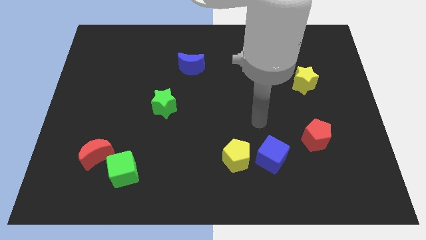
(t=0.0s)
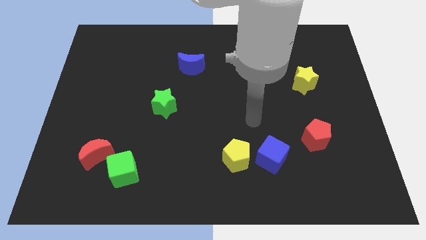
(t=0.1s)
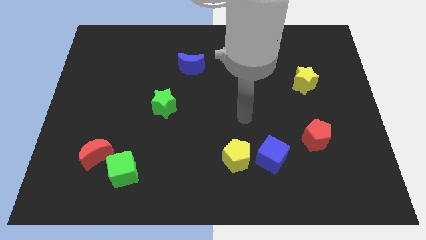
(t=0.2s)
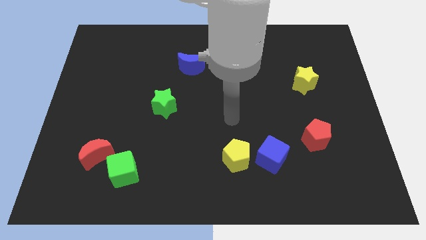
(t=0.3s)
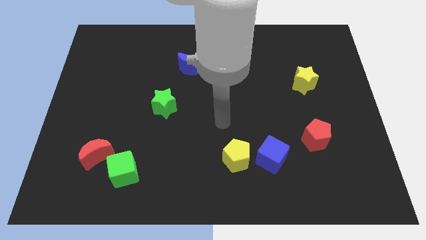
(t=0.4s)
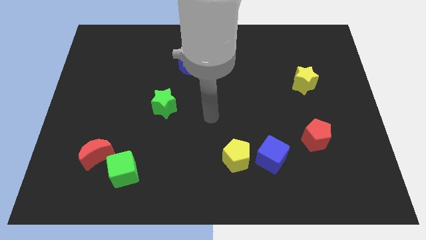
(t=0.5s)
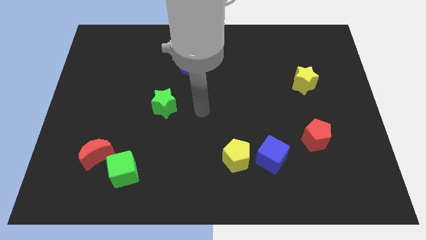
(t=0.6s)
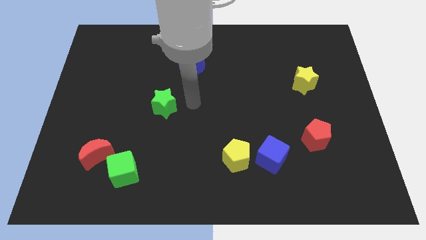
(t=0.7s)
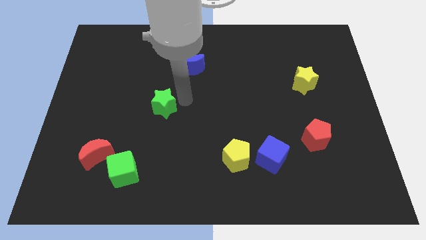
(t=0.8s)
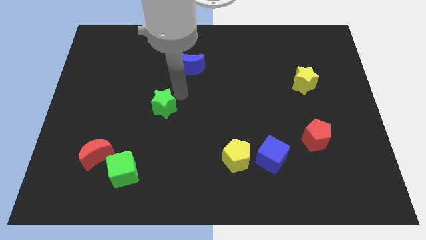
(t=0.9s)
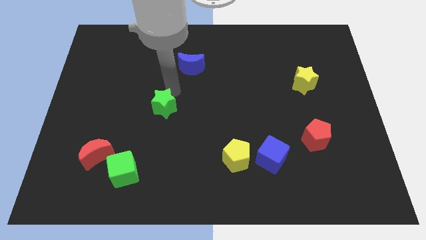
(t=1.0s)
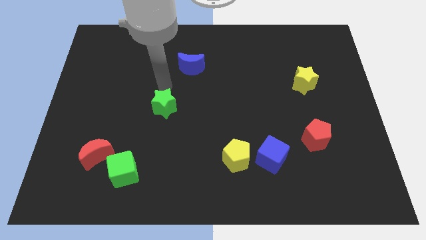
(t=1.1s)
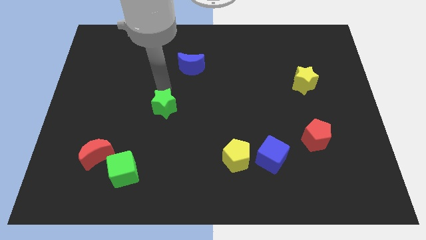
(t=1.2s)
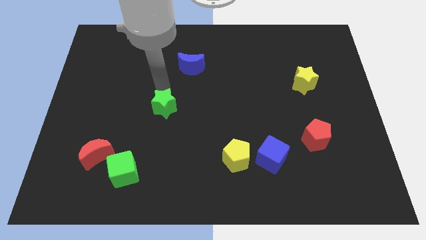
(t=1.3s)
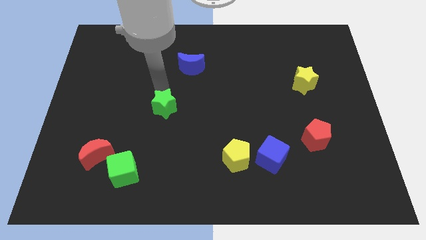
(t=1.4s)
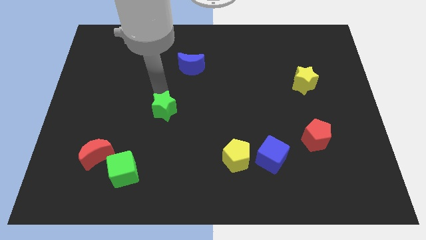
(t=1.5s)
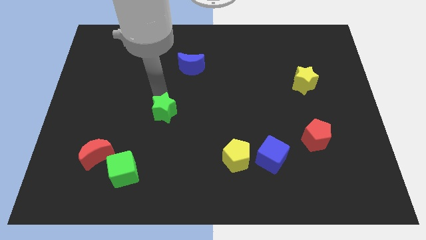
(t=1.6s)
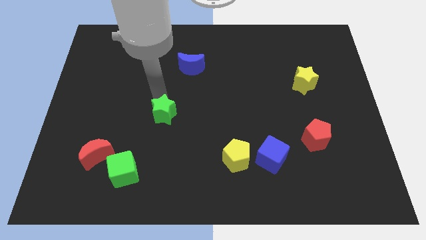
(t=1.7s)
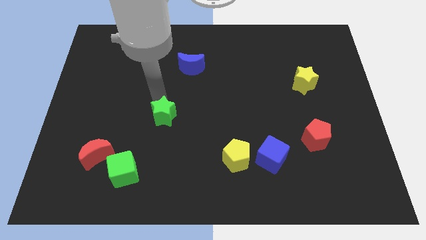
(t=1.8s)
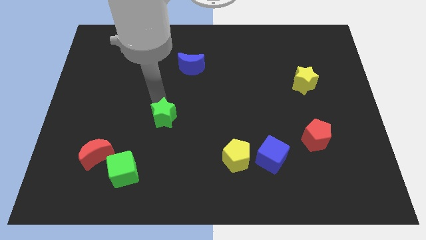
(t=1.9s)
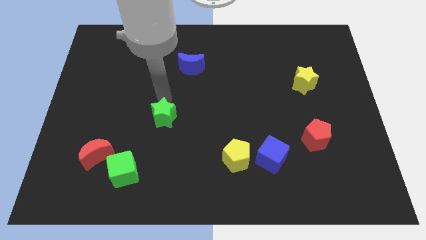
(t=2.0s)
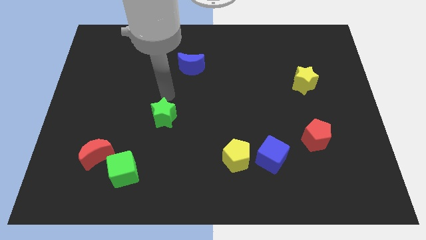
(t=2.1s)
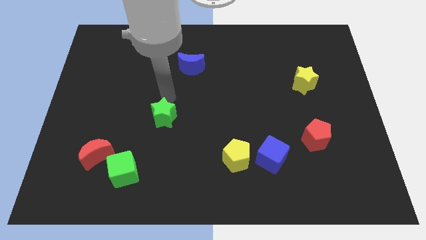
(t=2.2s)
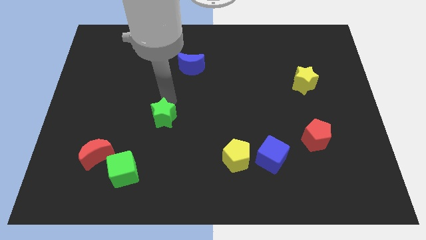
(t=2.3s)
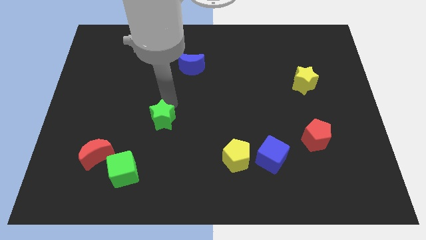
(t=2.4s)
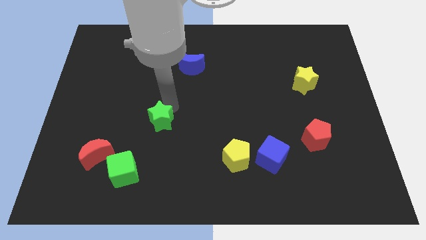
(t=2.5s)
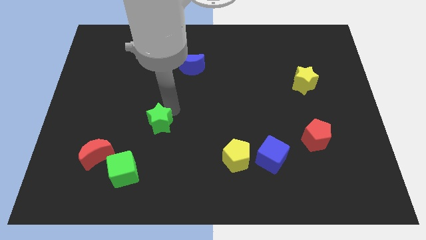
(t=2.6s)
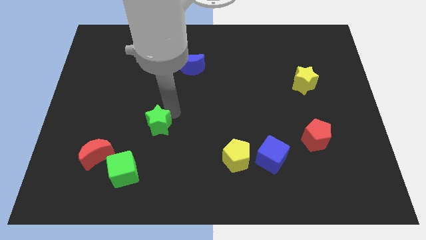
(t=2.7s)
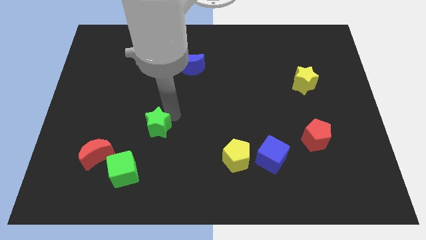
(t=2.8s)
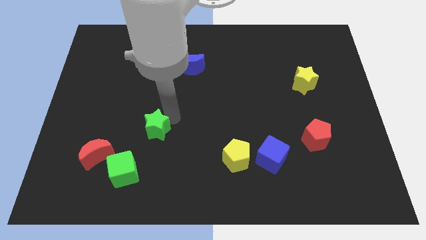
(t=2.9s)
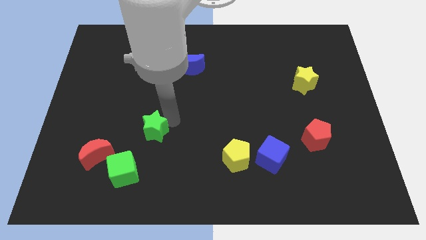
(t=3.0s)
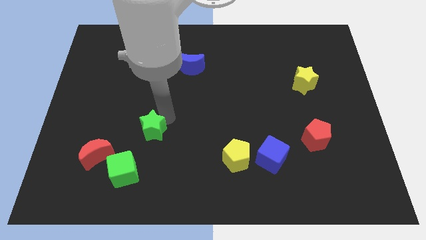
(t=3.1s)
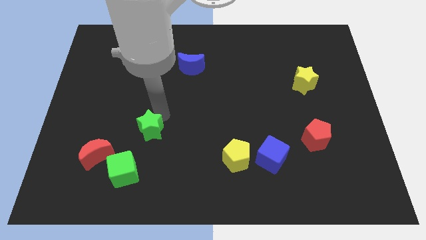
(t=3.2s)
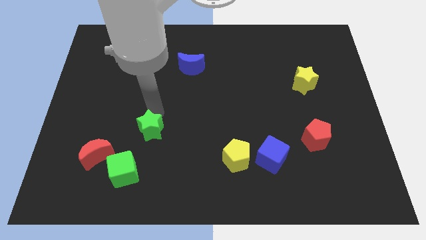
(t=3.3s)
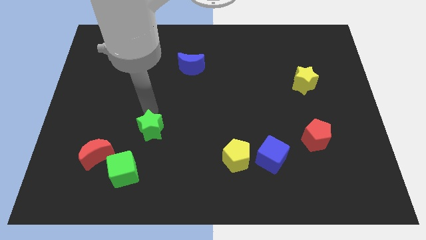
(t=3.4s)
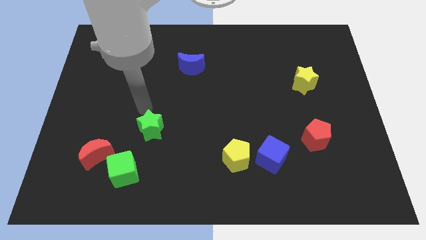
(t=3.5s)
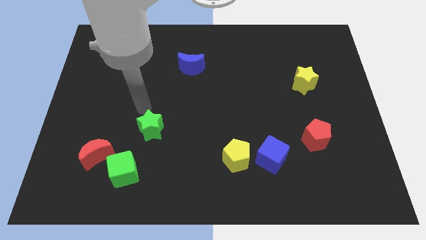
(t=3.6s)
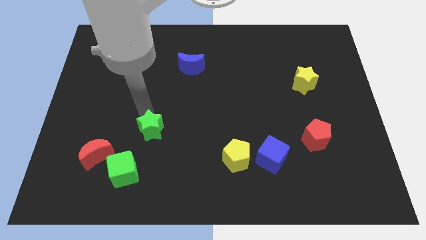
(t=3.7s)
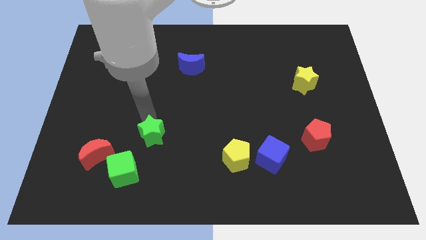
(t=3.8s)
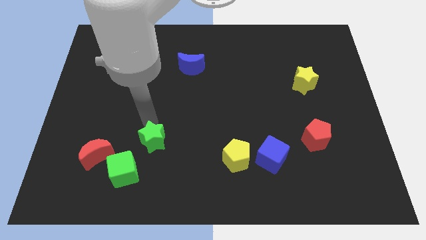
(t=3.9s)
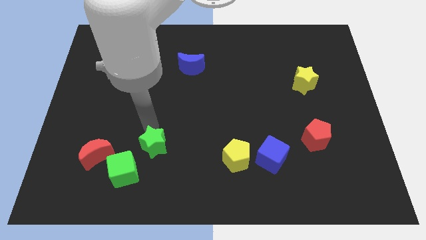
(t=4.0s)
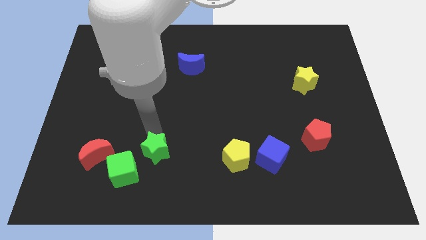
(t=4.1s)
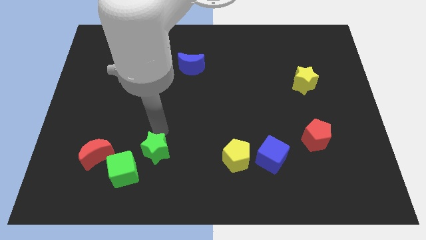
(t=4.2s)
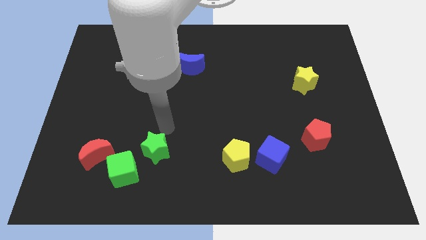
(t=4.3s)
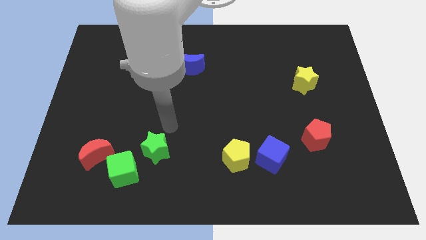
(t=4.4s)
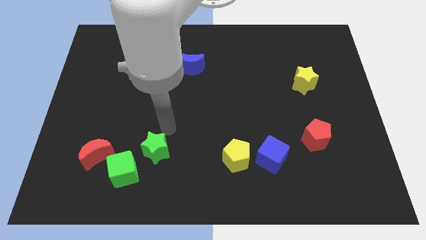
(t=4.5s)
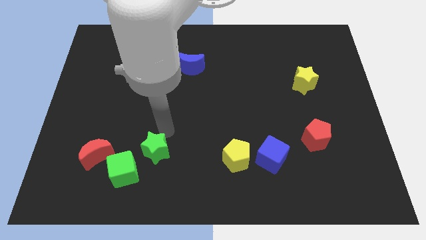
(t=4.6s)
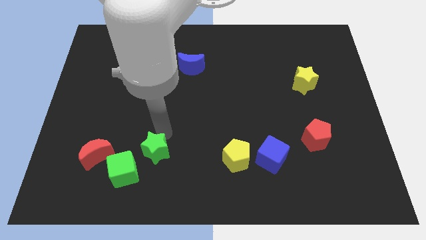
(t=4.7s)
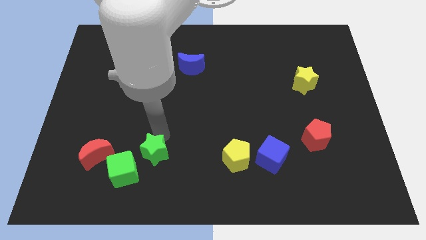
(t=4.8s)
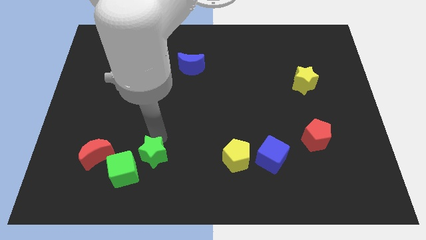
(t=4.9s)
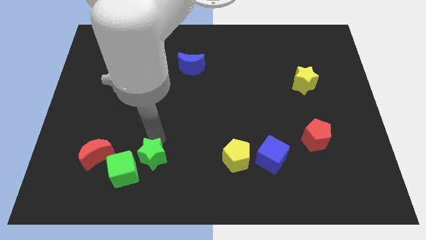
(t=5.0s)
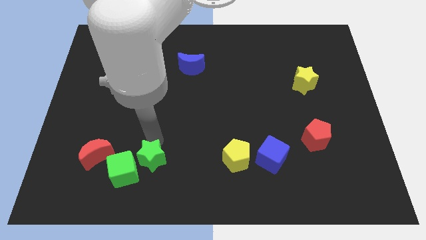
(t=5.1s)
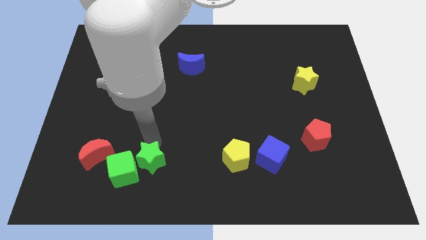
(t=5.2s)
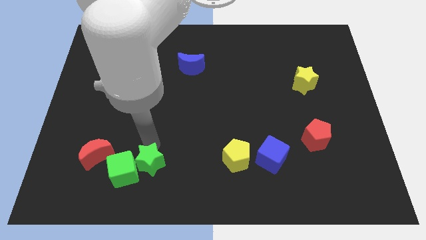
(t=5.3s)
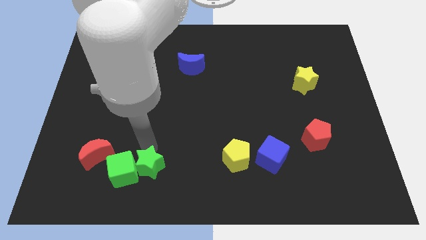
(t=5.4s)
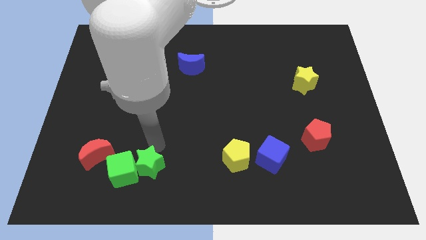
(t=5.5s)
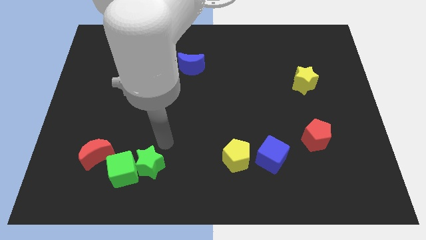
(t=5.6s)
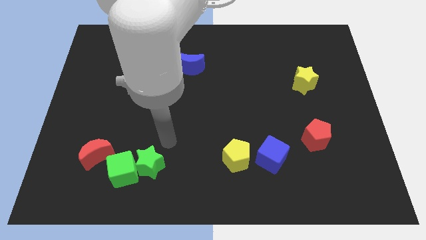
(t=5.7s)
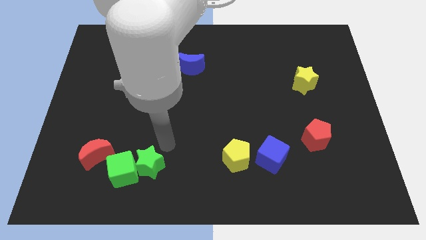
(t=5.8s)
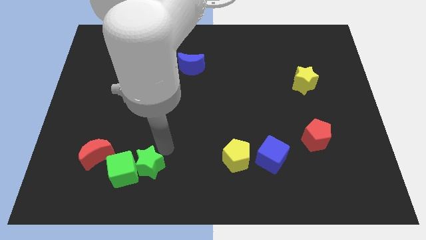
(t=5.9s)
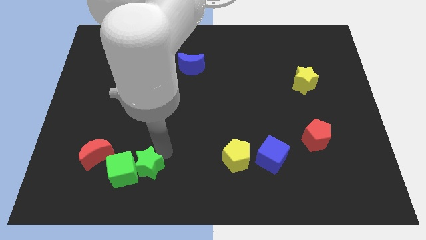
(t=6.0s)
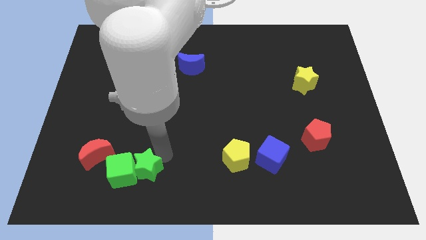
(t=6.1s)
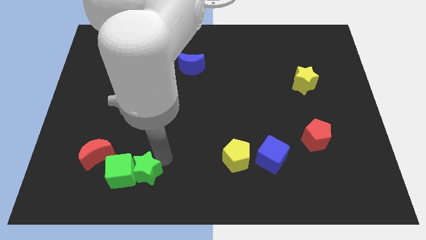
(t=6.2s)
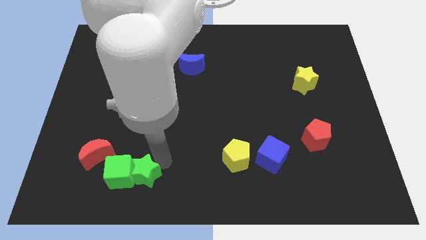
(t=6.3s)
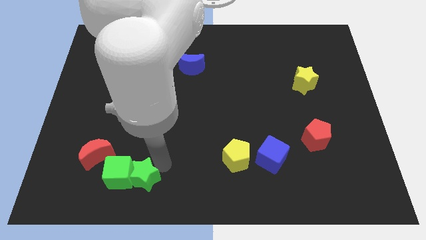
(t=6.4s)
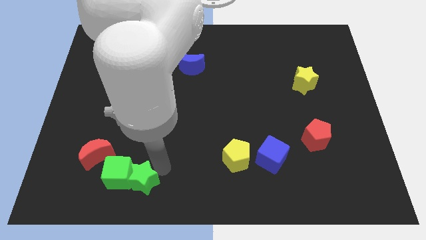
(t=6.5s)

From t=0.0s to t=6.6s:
slide the green star diagonally down and to the right of the red moon

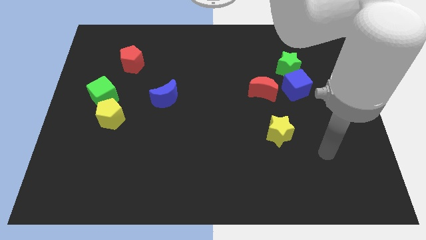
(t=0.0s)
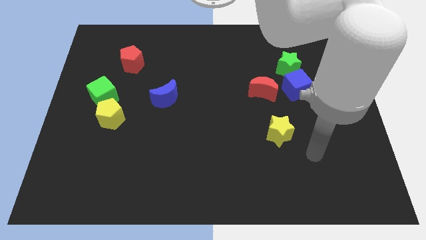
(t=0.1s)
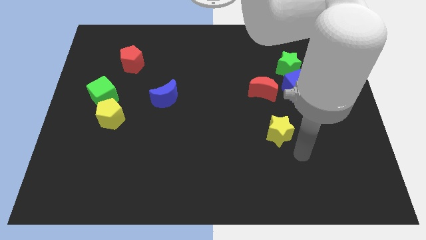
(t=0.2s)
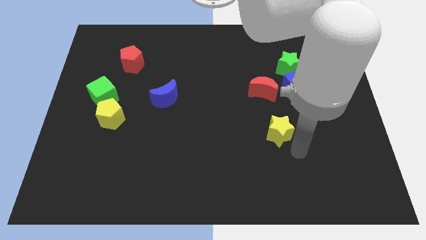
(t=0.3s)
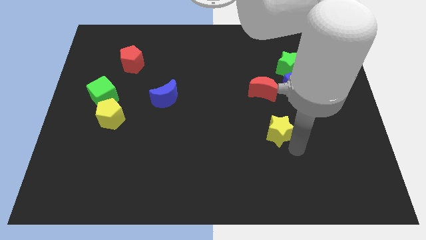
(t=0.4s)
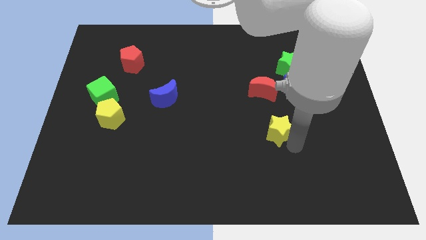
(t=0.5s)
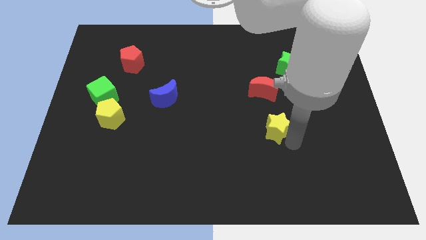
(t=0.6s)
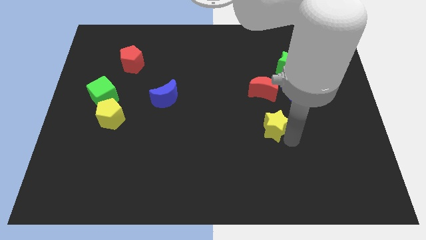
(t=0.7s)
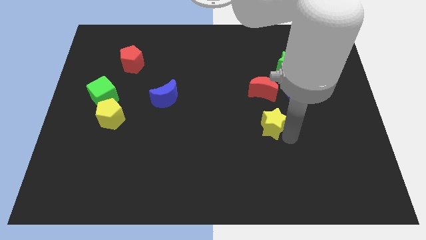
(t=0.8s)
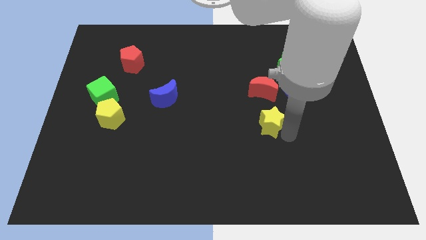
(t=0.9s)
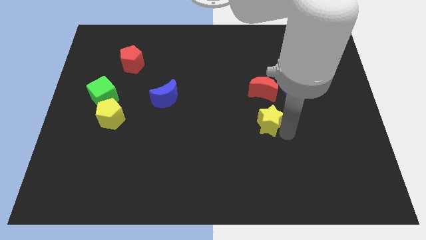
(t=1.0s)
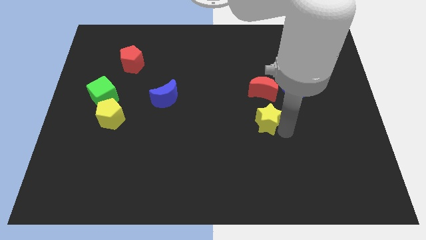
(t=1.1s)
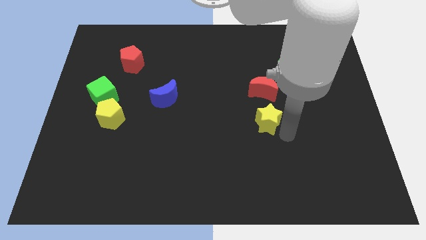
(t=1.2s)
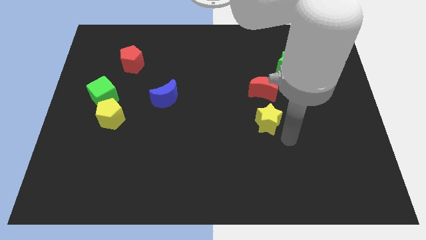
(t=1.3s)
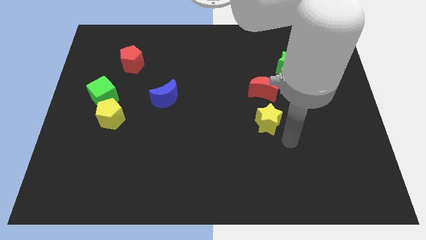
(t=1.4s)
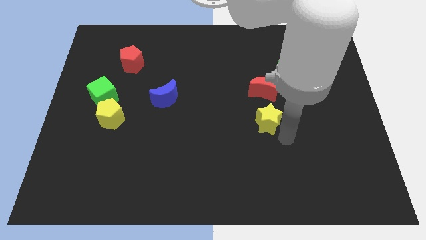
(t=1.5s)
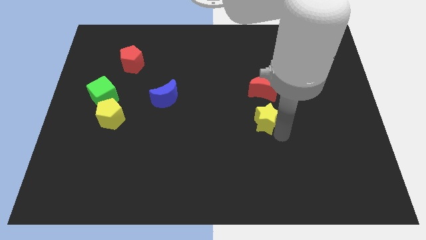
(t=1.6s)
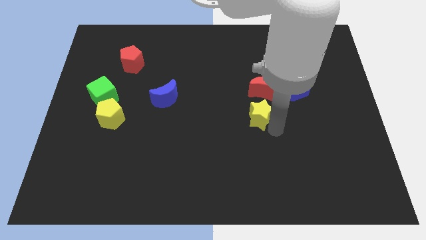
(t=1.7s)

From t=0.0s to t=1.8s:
push the yellow star diagonally down and to the left of the red moon

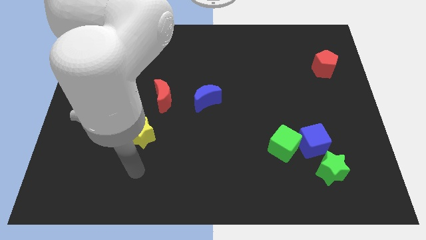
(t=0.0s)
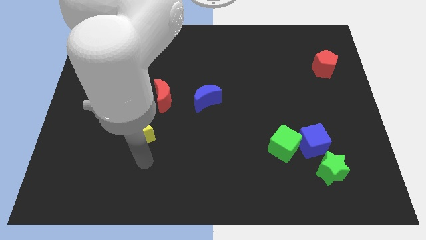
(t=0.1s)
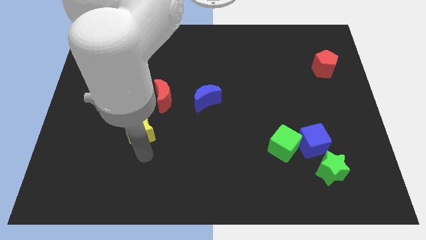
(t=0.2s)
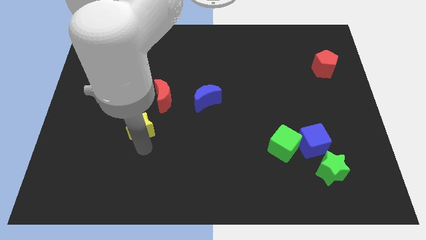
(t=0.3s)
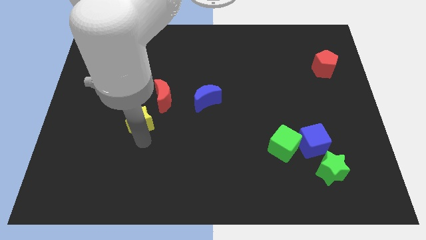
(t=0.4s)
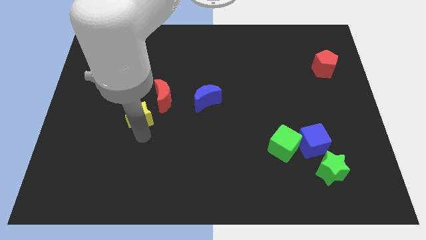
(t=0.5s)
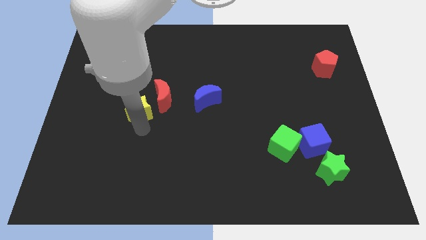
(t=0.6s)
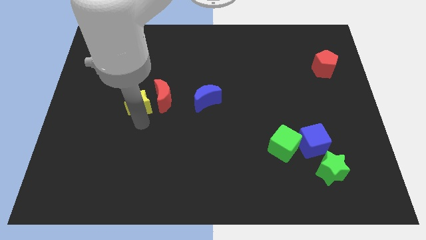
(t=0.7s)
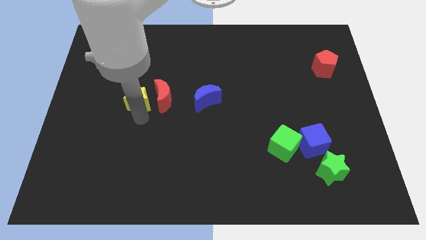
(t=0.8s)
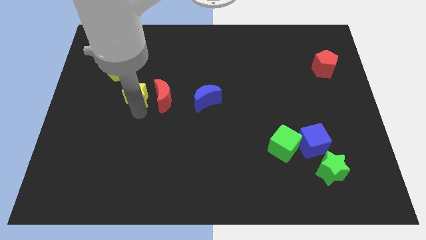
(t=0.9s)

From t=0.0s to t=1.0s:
move the yellow star diagonally up and to the left of the red moon
